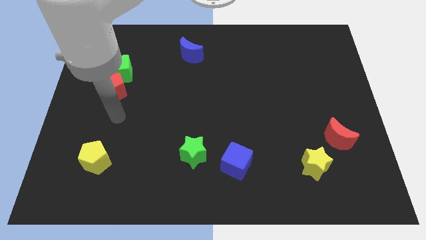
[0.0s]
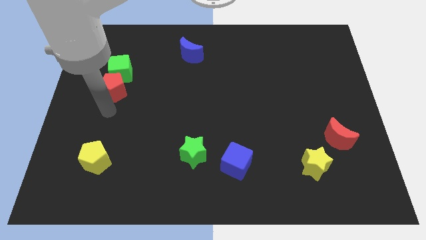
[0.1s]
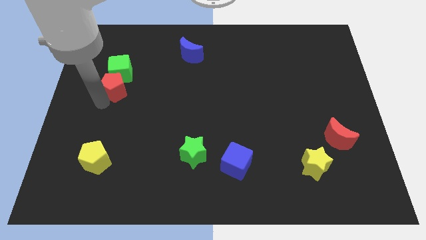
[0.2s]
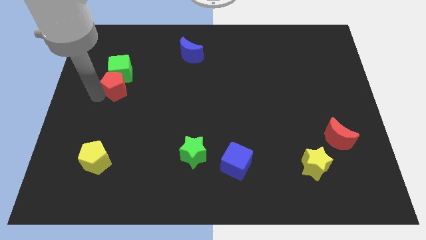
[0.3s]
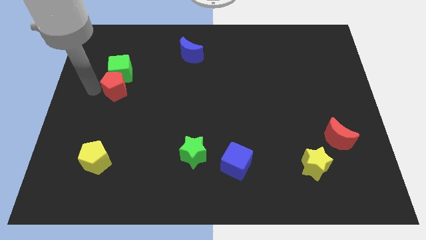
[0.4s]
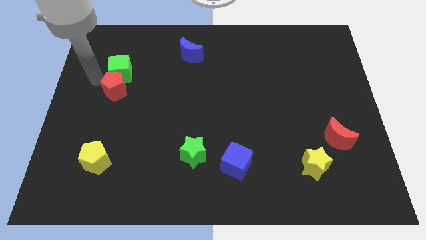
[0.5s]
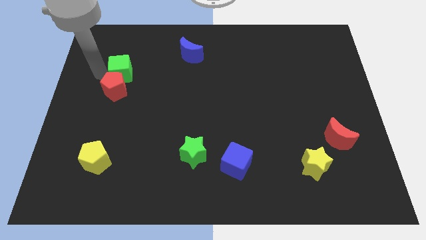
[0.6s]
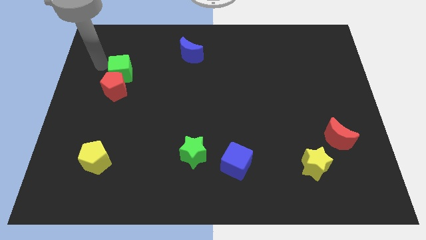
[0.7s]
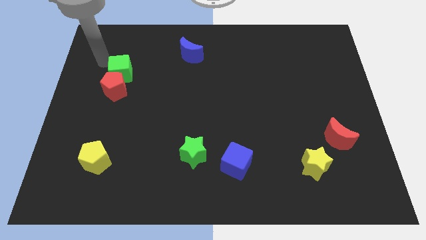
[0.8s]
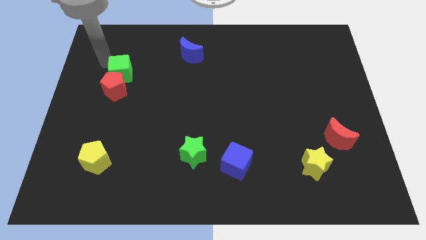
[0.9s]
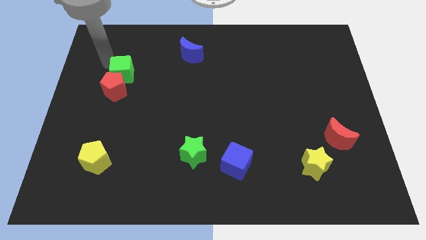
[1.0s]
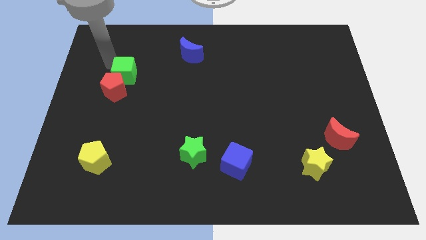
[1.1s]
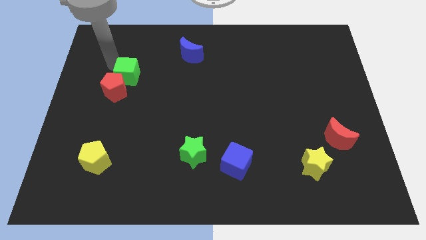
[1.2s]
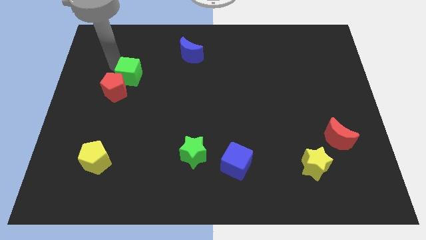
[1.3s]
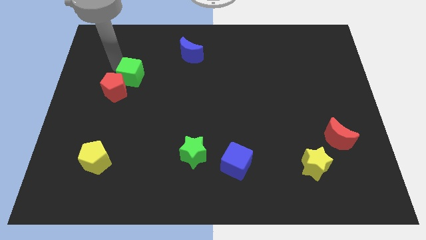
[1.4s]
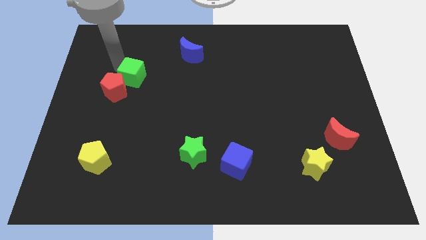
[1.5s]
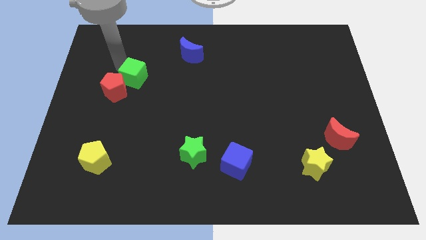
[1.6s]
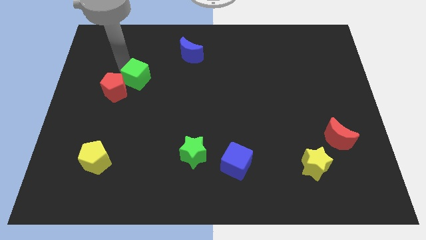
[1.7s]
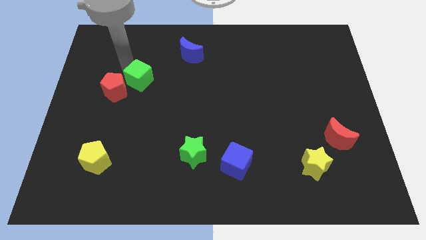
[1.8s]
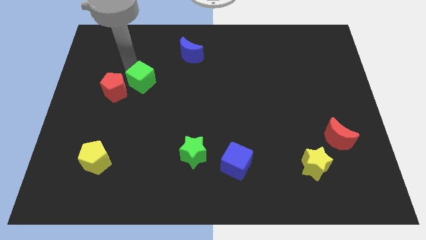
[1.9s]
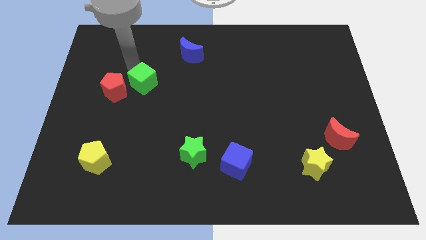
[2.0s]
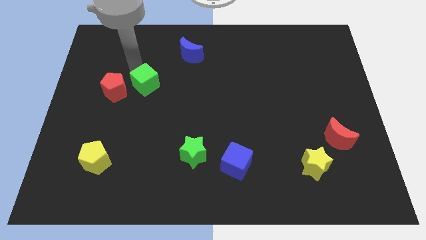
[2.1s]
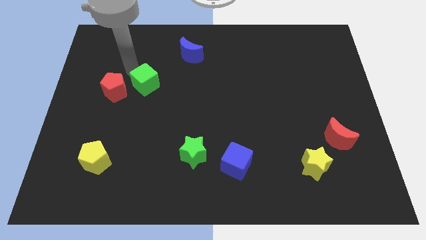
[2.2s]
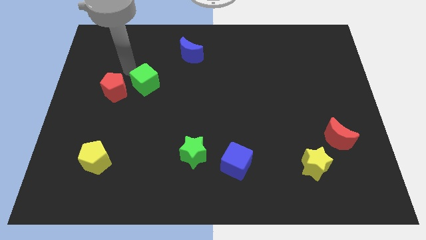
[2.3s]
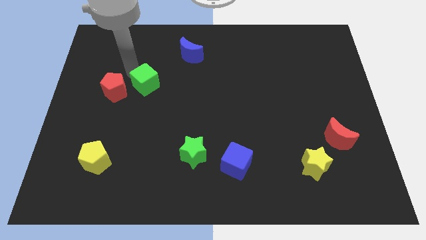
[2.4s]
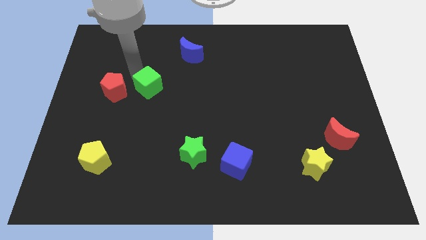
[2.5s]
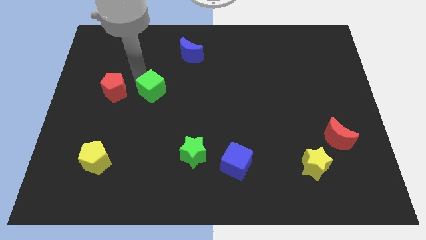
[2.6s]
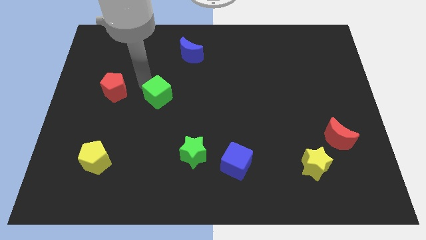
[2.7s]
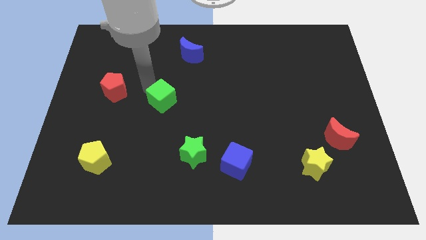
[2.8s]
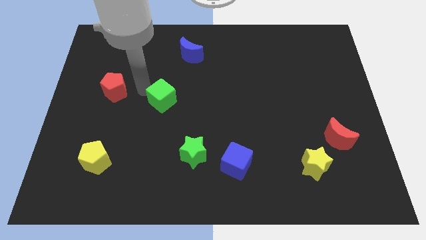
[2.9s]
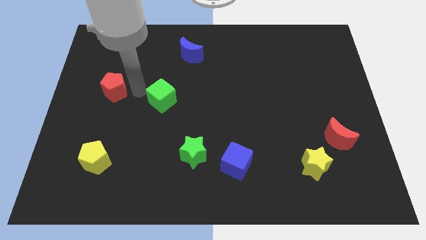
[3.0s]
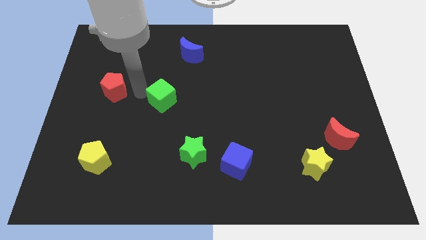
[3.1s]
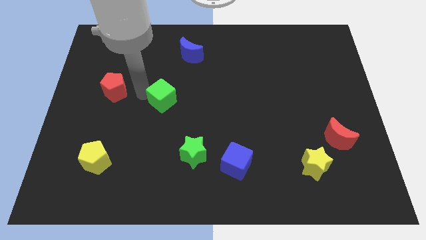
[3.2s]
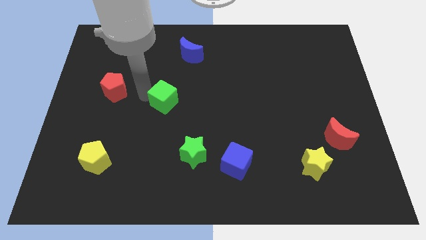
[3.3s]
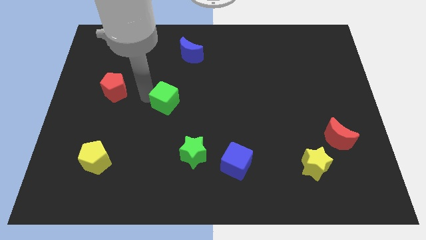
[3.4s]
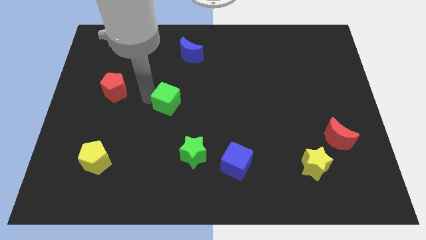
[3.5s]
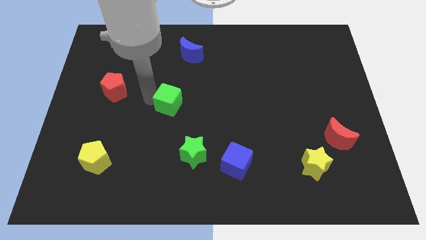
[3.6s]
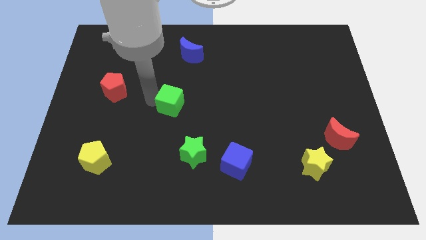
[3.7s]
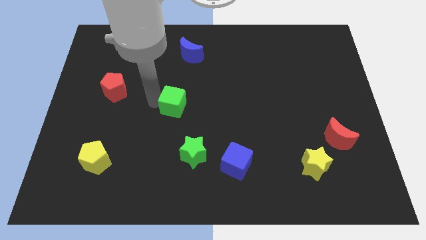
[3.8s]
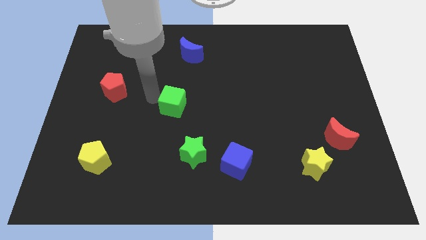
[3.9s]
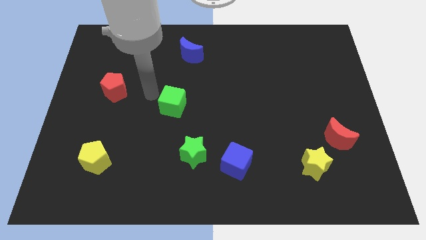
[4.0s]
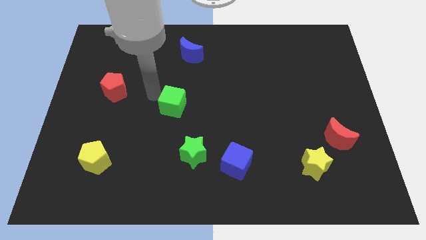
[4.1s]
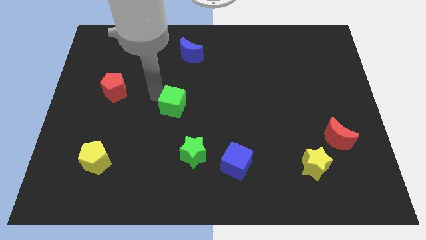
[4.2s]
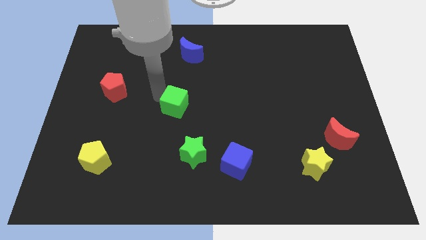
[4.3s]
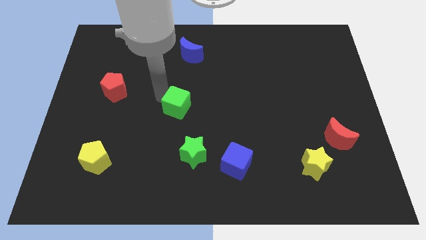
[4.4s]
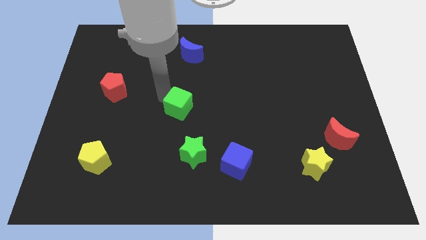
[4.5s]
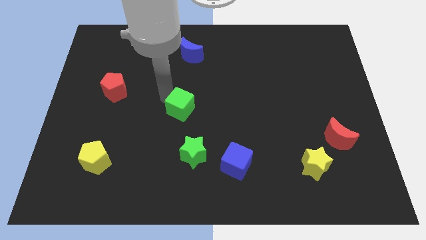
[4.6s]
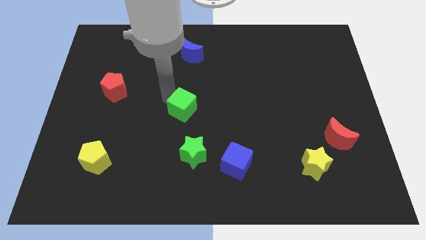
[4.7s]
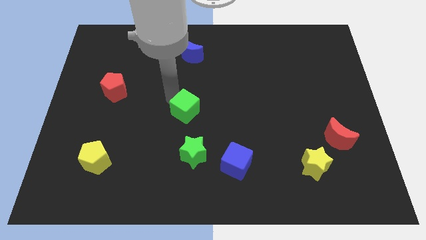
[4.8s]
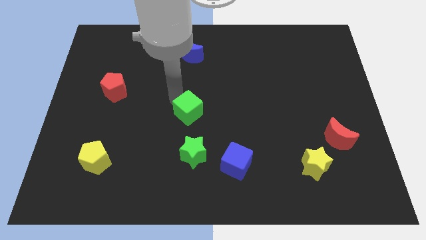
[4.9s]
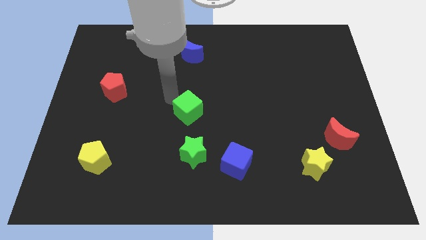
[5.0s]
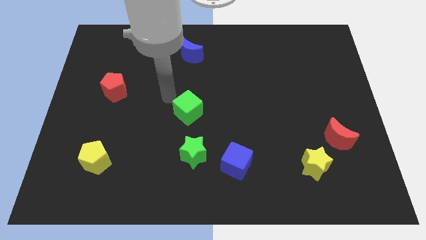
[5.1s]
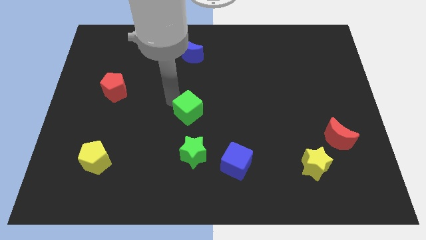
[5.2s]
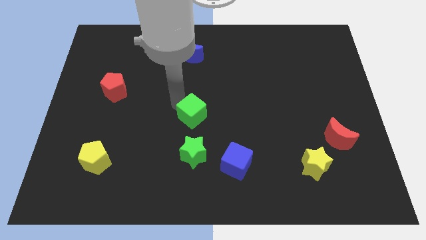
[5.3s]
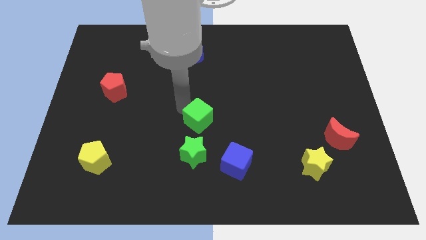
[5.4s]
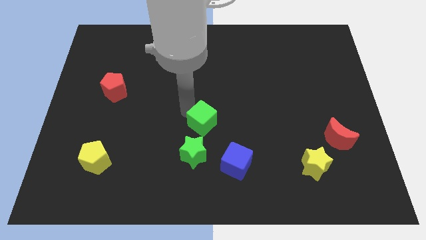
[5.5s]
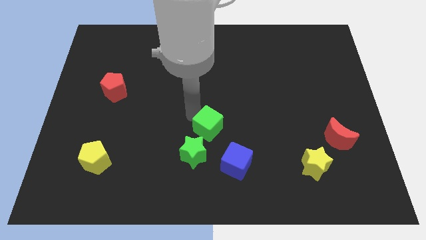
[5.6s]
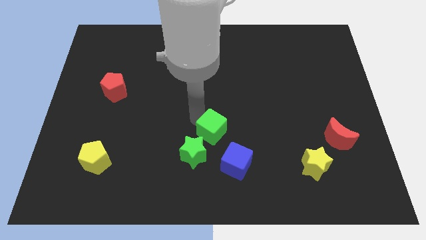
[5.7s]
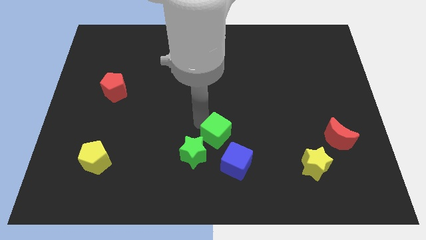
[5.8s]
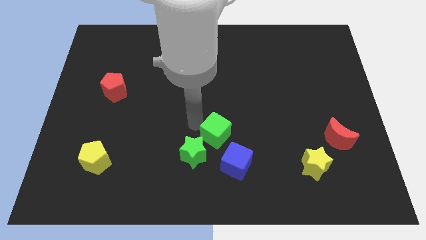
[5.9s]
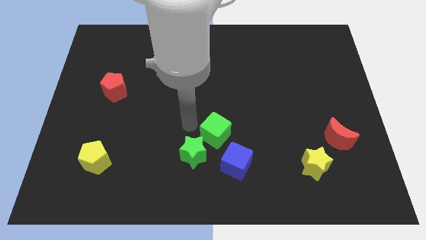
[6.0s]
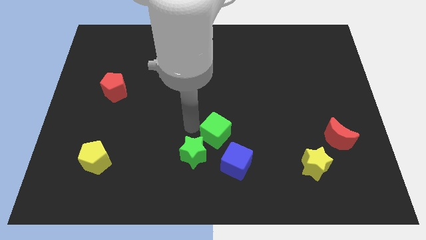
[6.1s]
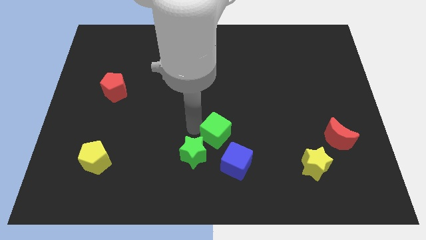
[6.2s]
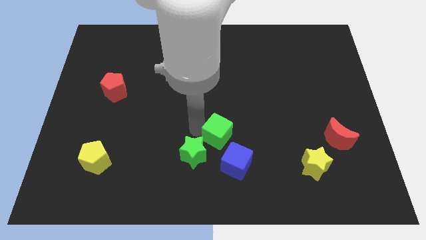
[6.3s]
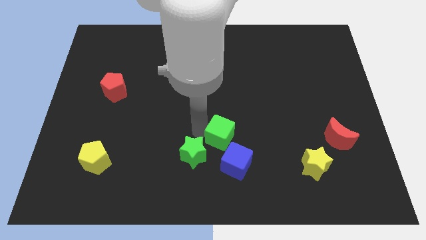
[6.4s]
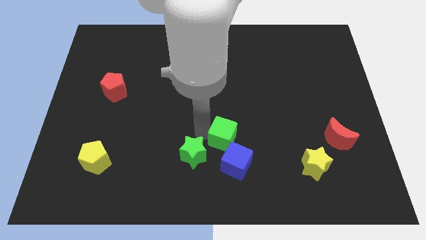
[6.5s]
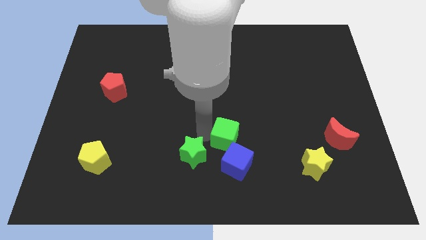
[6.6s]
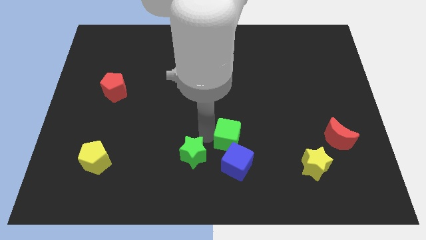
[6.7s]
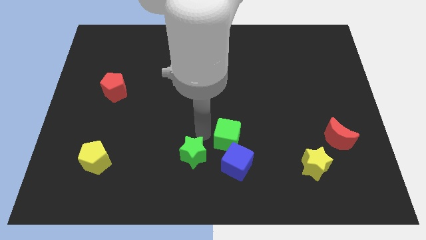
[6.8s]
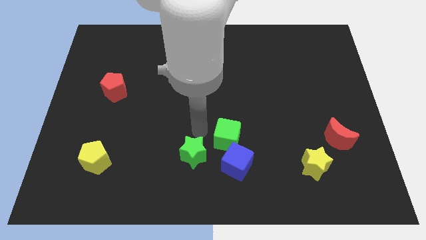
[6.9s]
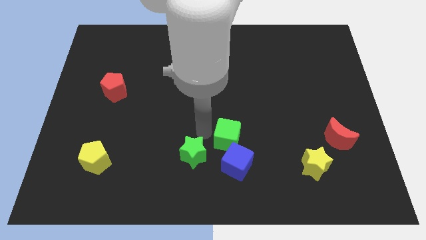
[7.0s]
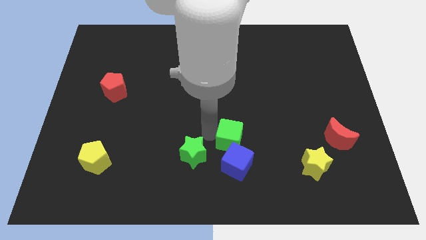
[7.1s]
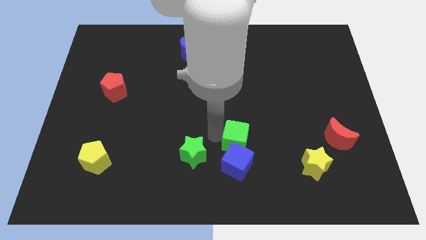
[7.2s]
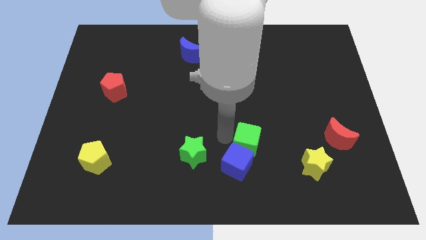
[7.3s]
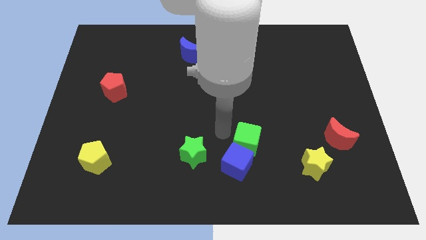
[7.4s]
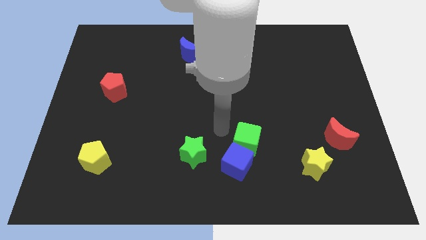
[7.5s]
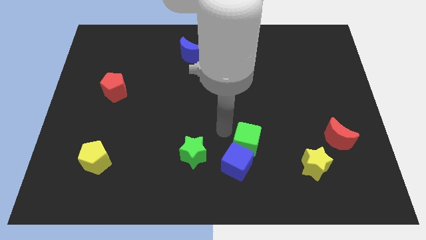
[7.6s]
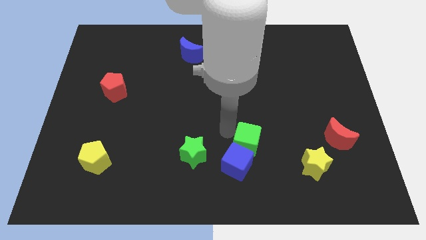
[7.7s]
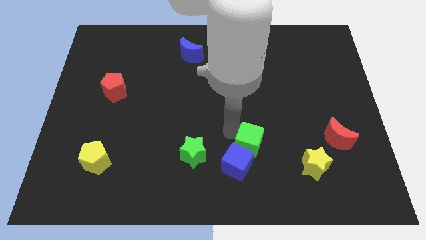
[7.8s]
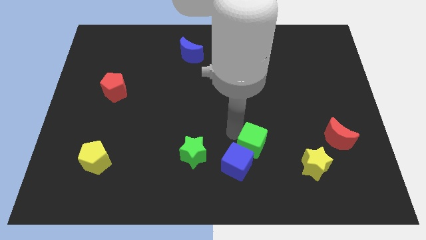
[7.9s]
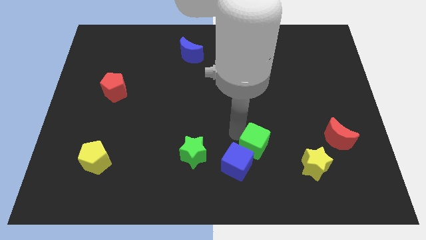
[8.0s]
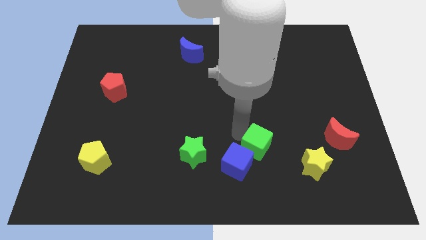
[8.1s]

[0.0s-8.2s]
slide the green cube just right of the blue cube
